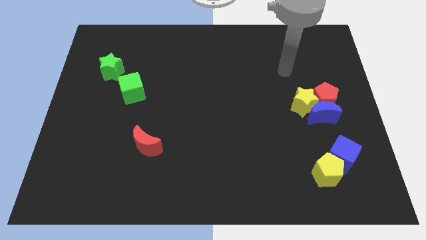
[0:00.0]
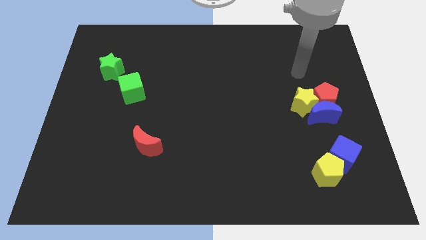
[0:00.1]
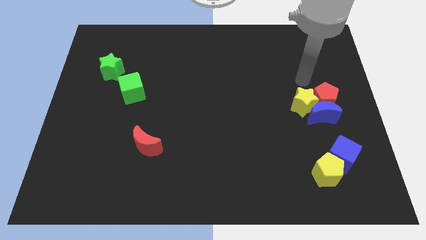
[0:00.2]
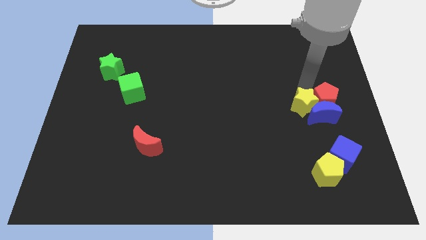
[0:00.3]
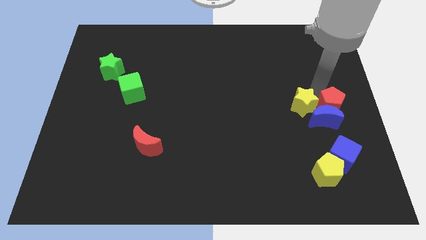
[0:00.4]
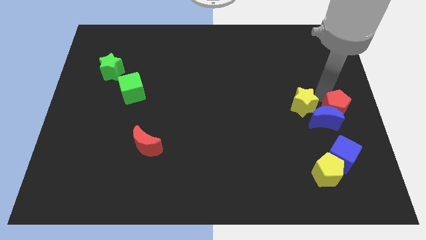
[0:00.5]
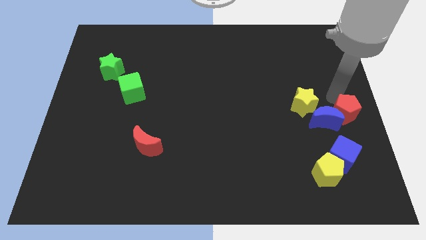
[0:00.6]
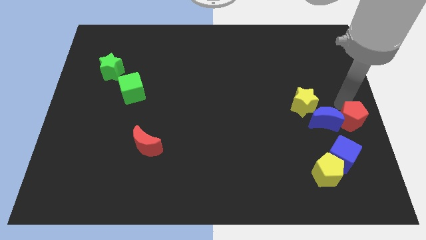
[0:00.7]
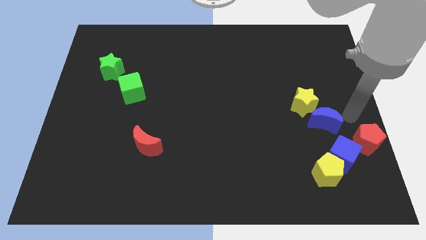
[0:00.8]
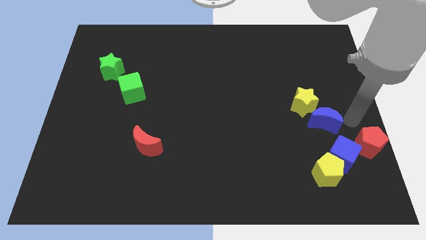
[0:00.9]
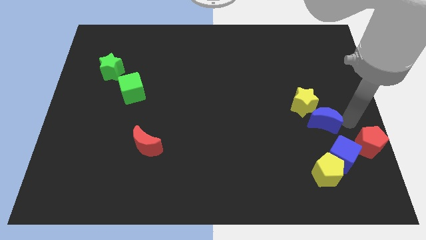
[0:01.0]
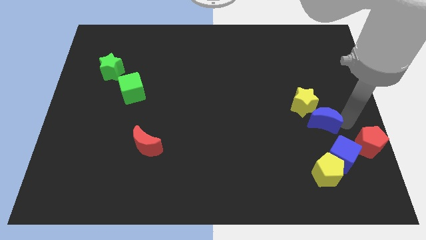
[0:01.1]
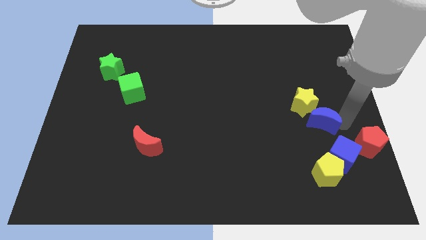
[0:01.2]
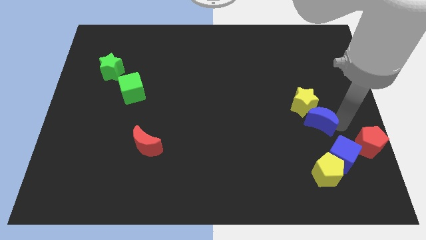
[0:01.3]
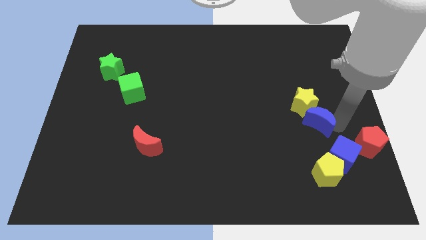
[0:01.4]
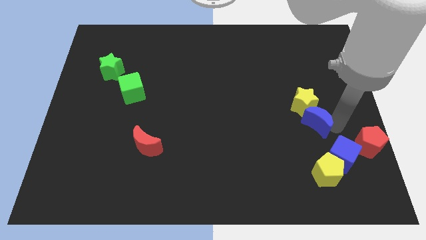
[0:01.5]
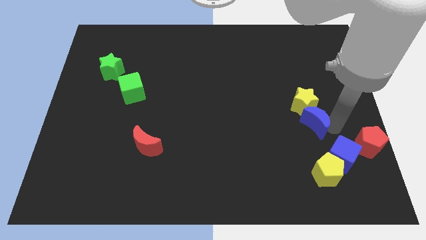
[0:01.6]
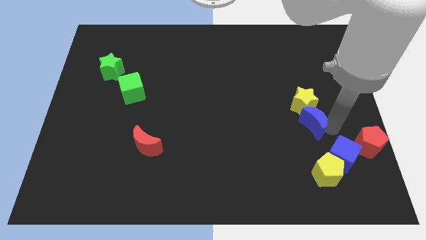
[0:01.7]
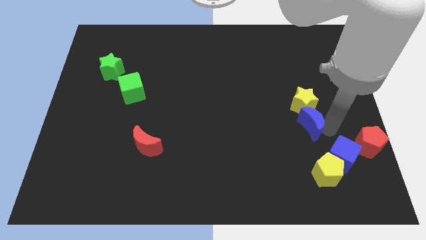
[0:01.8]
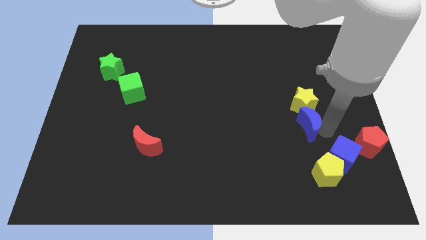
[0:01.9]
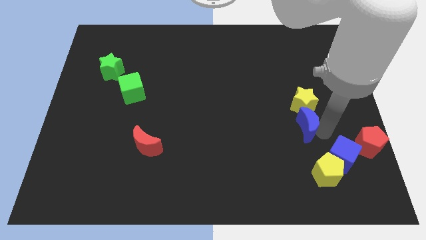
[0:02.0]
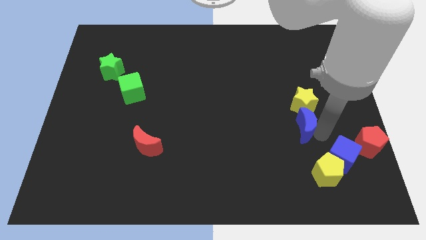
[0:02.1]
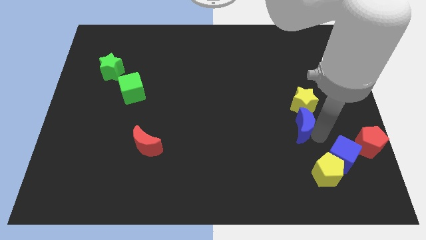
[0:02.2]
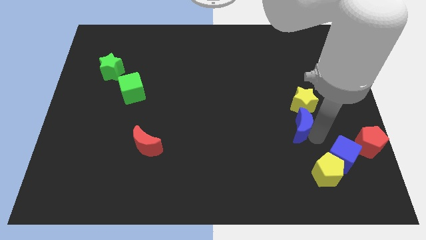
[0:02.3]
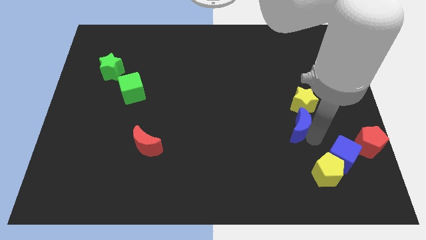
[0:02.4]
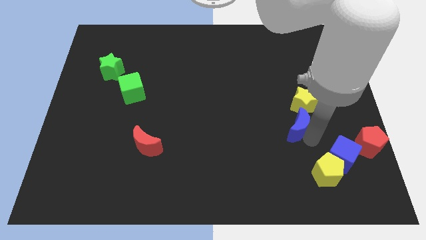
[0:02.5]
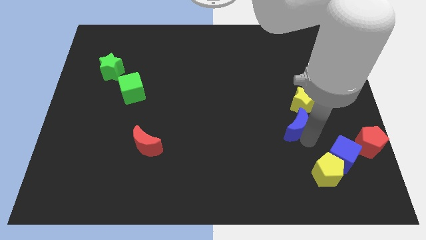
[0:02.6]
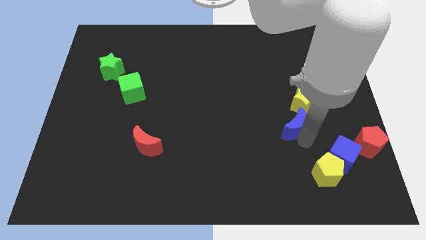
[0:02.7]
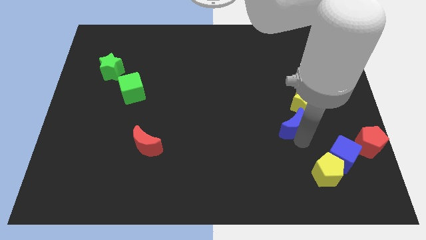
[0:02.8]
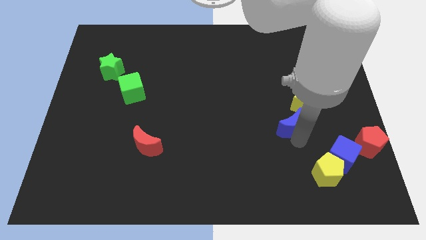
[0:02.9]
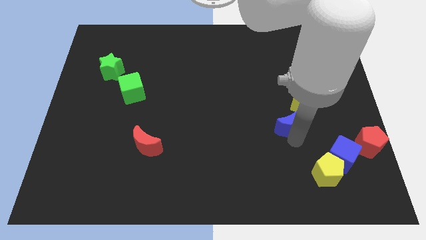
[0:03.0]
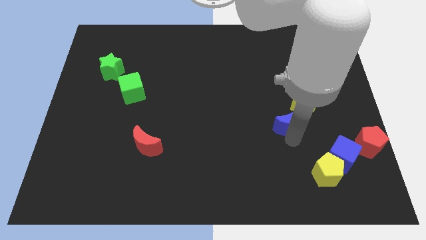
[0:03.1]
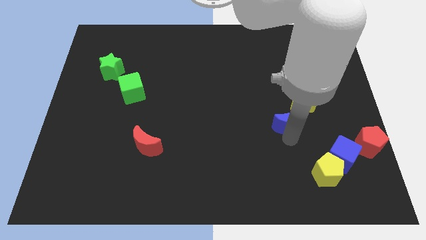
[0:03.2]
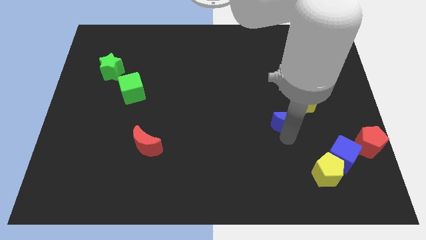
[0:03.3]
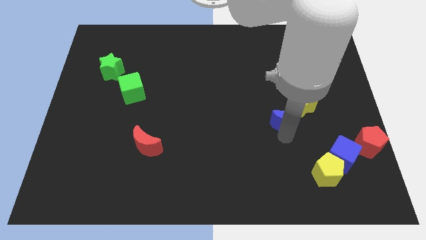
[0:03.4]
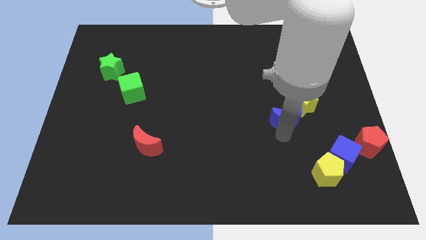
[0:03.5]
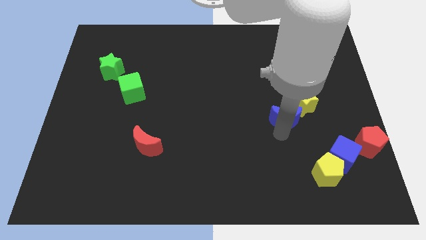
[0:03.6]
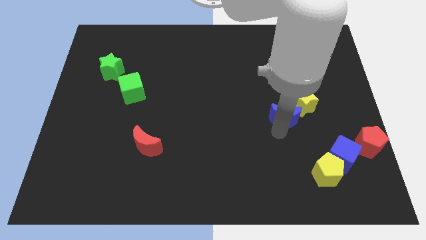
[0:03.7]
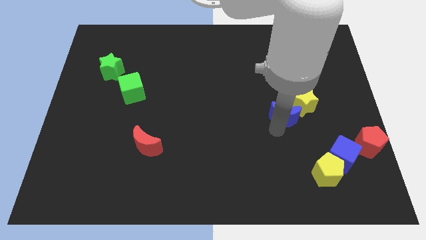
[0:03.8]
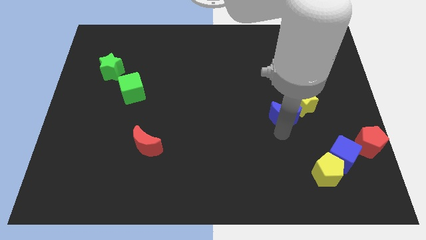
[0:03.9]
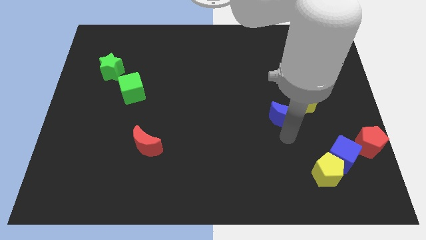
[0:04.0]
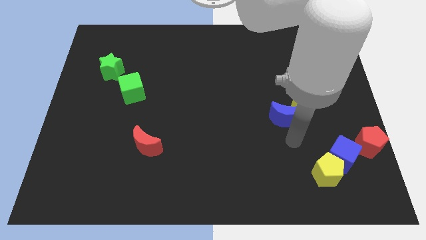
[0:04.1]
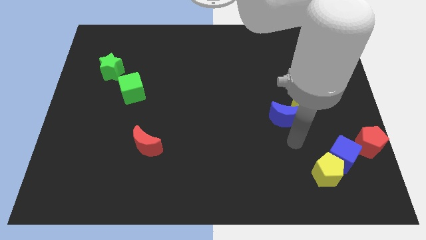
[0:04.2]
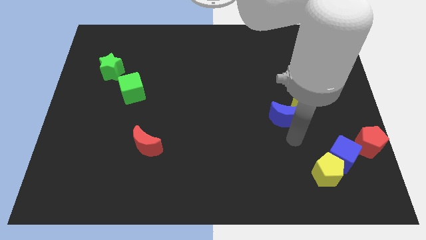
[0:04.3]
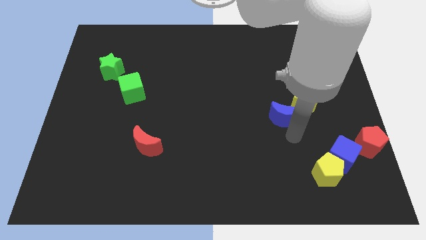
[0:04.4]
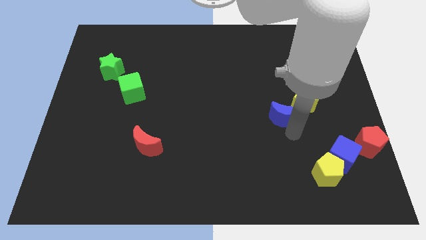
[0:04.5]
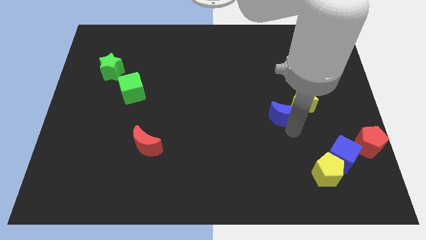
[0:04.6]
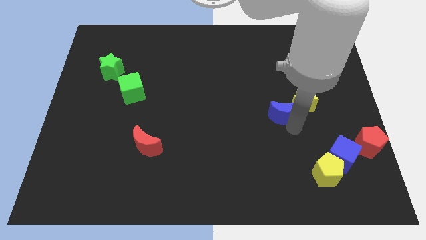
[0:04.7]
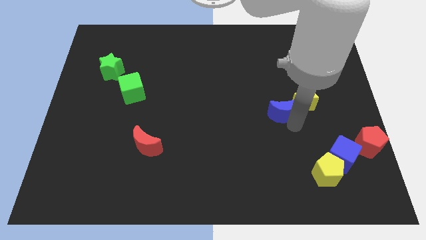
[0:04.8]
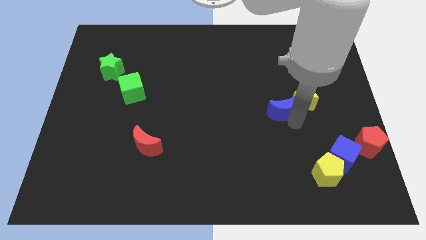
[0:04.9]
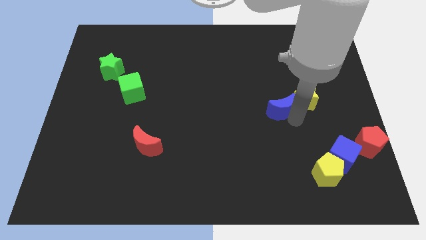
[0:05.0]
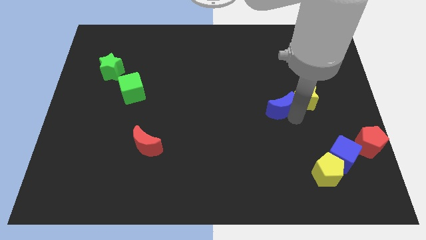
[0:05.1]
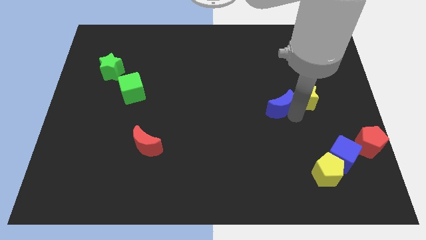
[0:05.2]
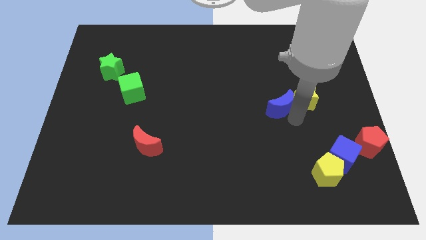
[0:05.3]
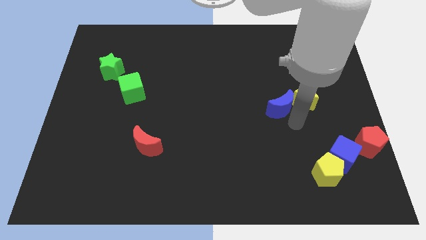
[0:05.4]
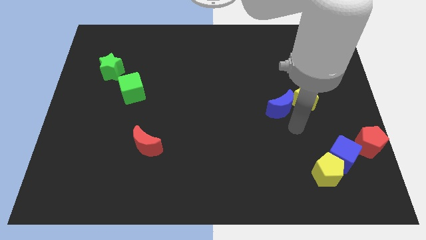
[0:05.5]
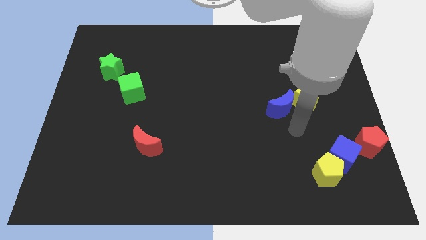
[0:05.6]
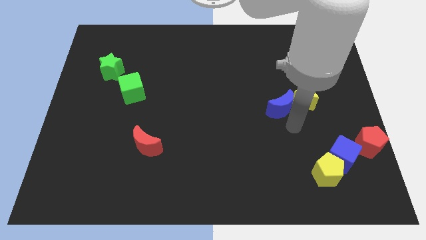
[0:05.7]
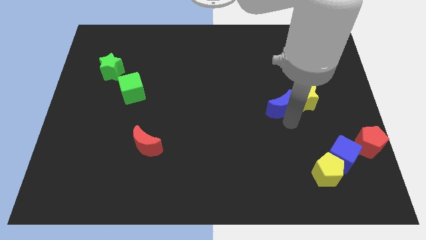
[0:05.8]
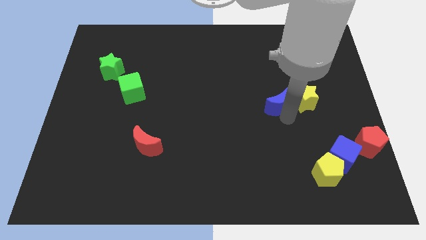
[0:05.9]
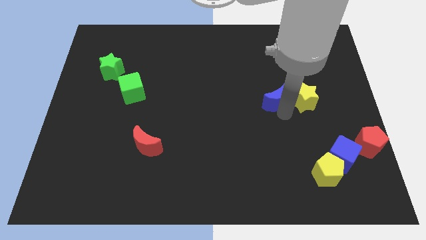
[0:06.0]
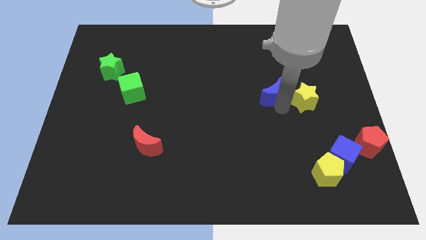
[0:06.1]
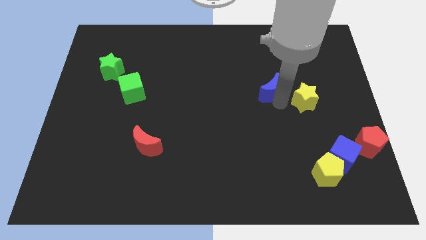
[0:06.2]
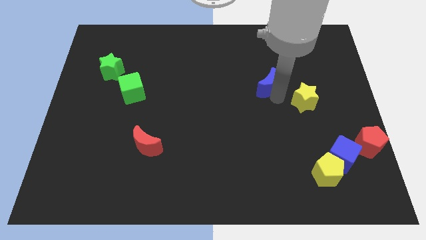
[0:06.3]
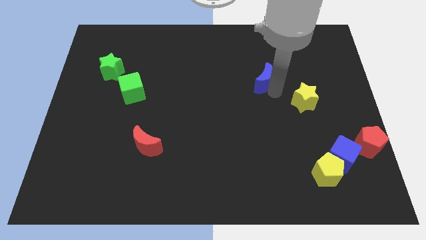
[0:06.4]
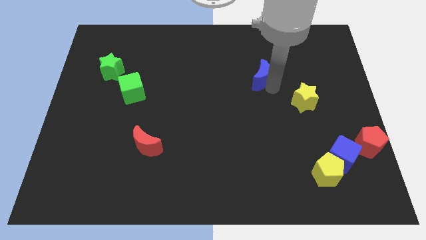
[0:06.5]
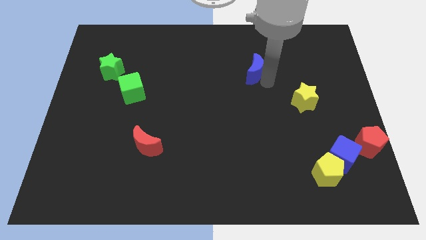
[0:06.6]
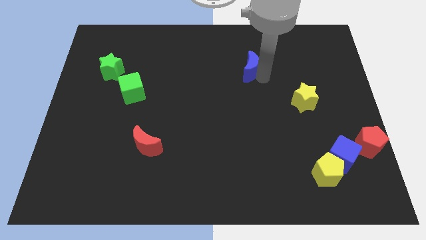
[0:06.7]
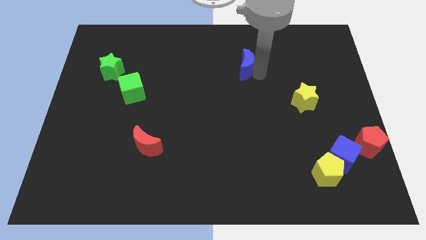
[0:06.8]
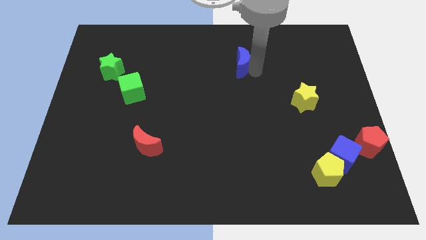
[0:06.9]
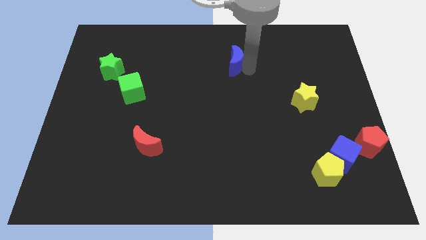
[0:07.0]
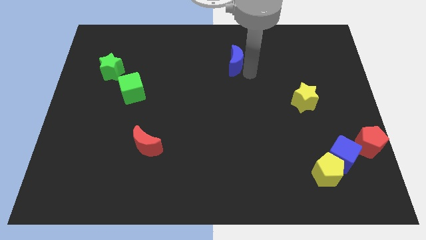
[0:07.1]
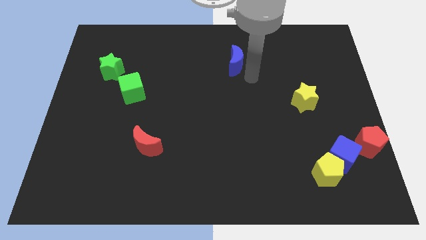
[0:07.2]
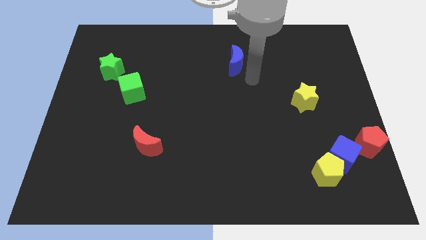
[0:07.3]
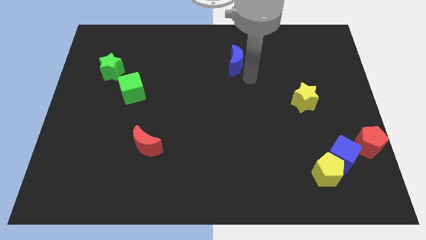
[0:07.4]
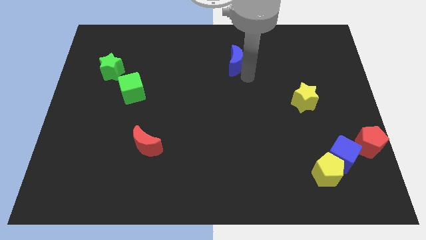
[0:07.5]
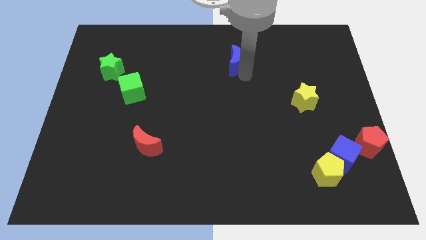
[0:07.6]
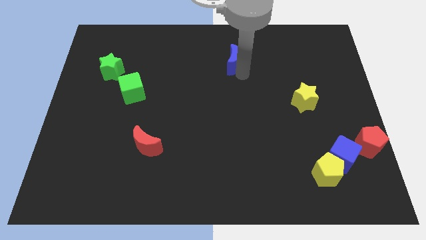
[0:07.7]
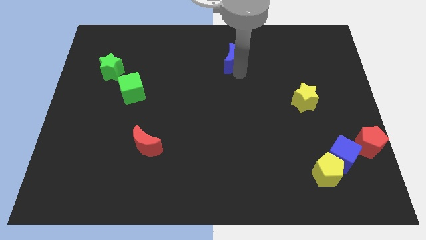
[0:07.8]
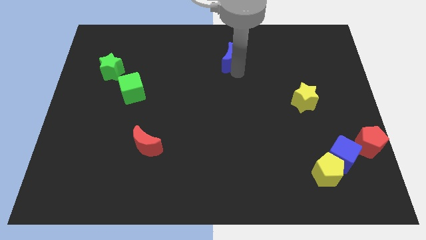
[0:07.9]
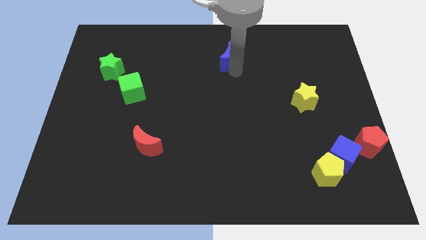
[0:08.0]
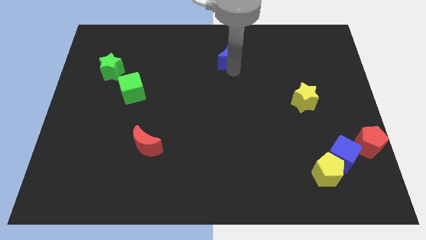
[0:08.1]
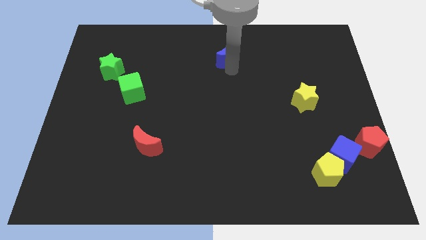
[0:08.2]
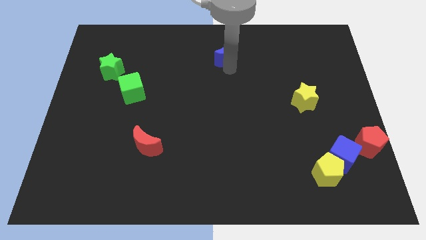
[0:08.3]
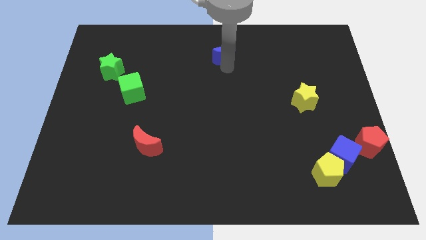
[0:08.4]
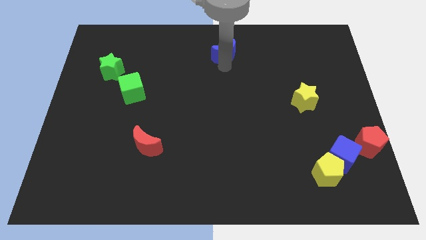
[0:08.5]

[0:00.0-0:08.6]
slide the blue moon to the towards your base
